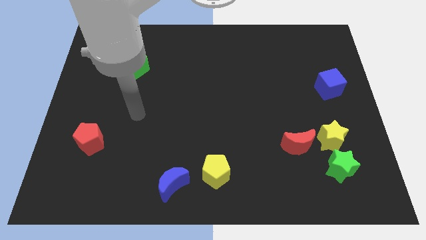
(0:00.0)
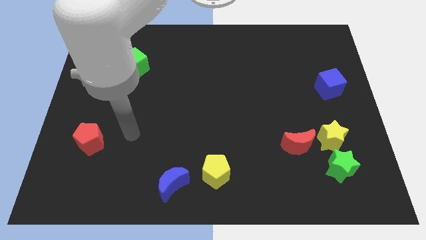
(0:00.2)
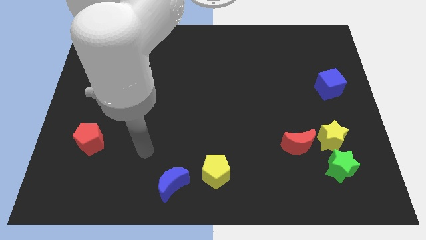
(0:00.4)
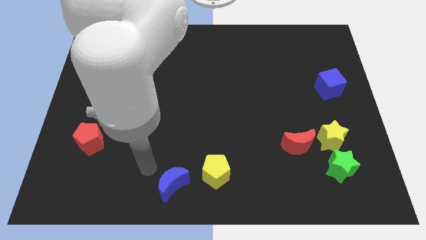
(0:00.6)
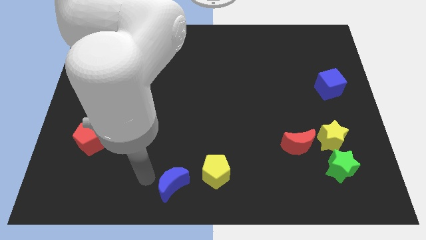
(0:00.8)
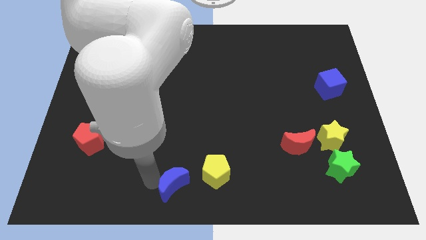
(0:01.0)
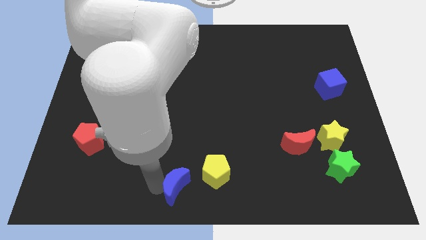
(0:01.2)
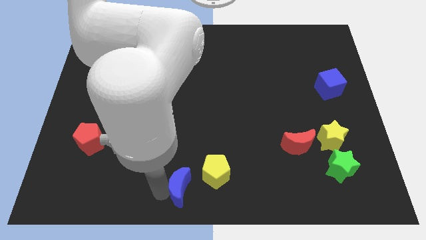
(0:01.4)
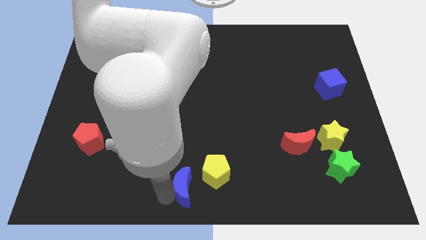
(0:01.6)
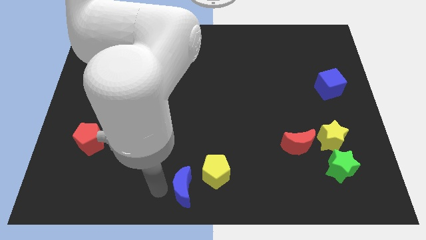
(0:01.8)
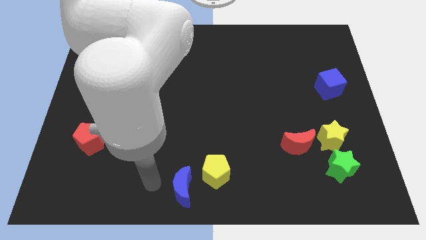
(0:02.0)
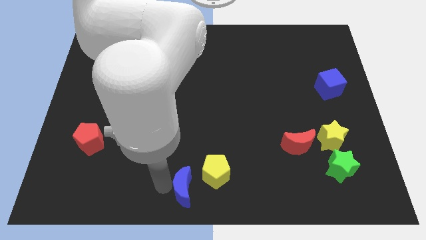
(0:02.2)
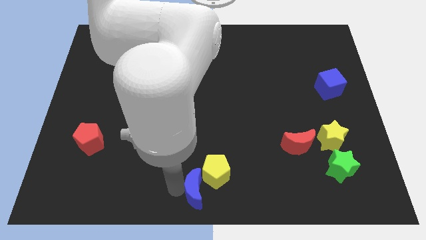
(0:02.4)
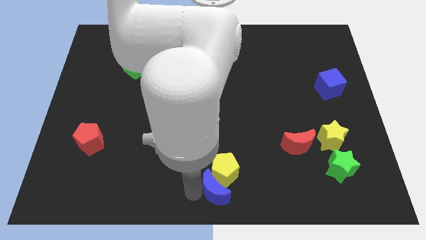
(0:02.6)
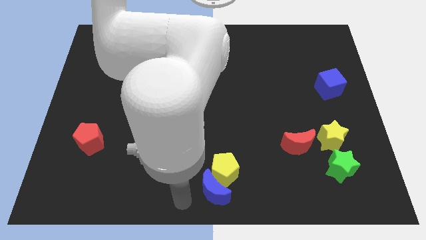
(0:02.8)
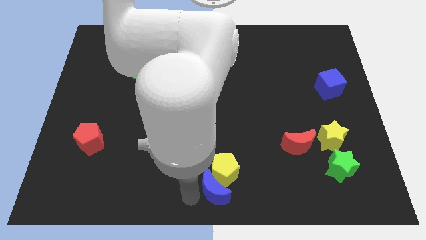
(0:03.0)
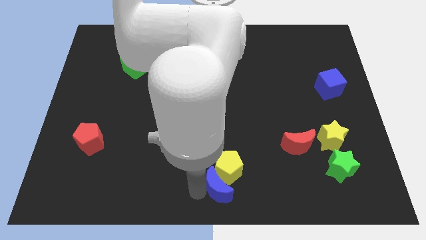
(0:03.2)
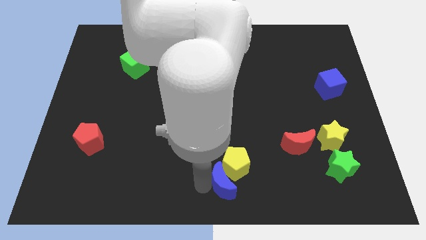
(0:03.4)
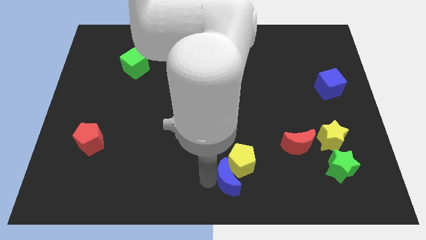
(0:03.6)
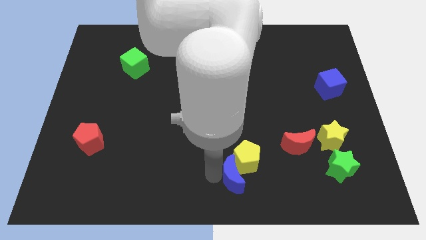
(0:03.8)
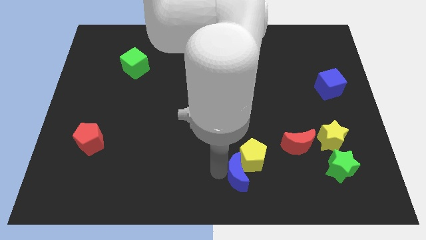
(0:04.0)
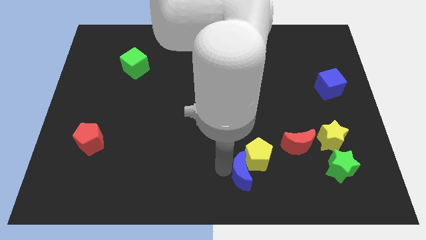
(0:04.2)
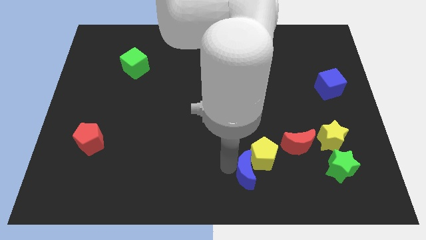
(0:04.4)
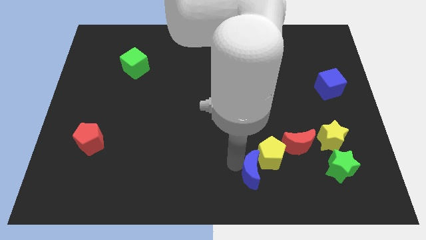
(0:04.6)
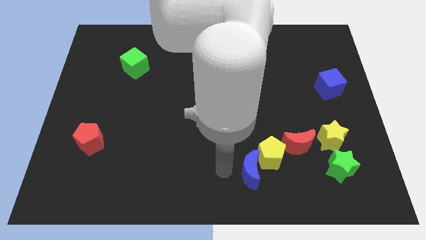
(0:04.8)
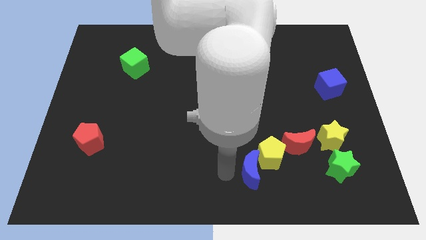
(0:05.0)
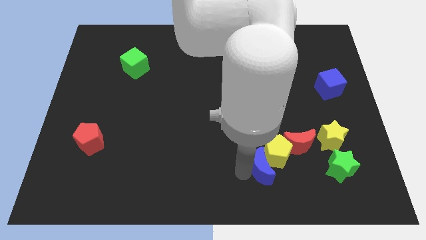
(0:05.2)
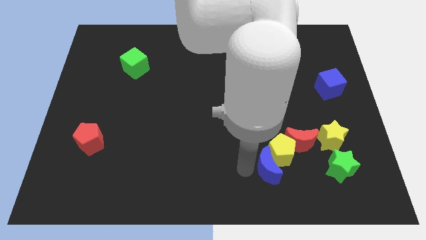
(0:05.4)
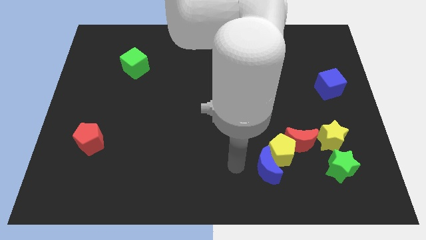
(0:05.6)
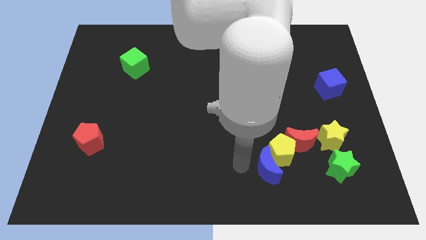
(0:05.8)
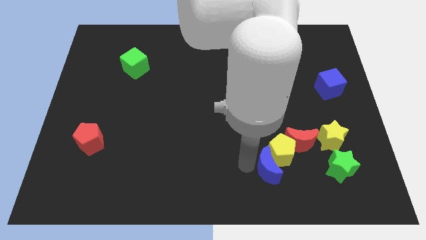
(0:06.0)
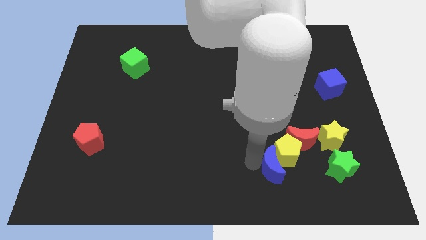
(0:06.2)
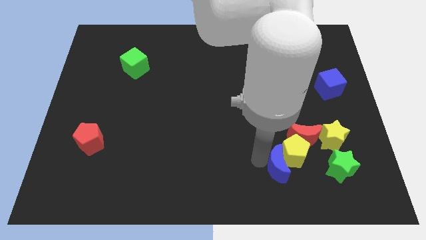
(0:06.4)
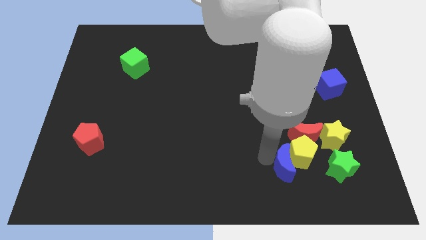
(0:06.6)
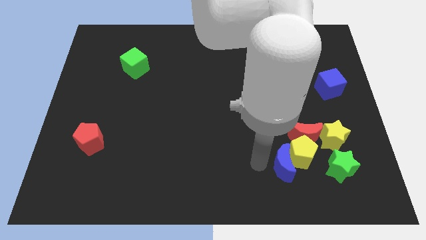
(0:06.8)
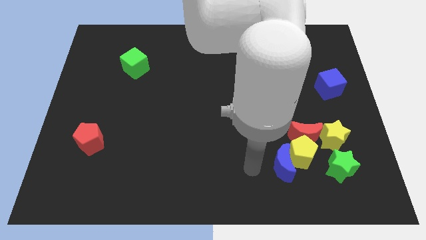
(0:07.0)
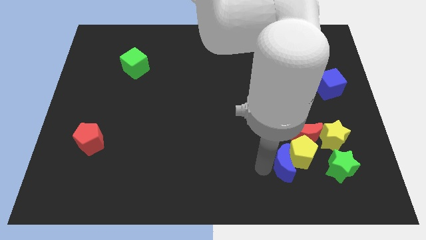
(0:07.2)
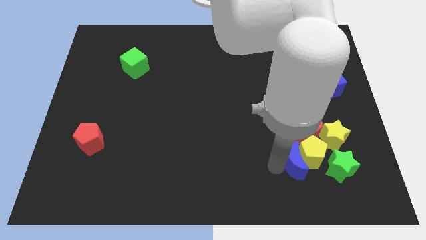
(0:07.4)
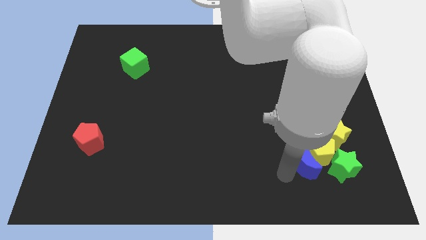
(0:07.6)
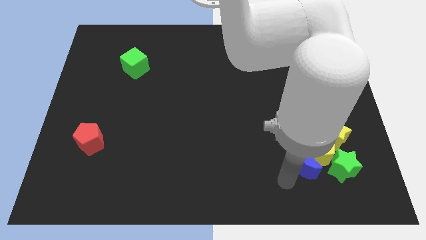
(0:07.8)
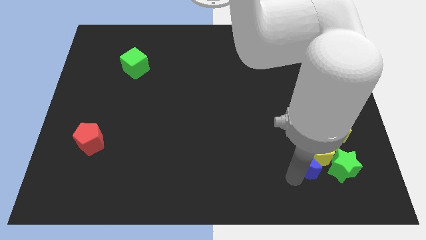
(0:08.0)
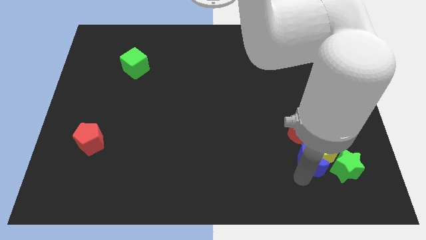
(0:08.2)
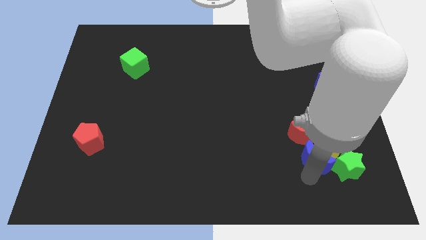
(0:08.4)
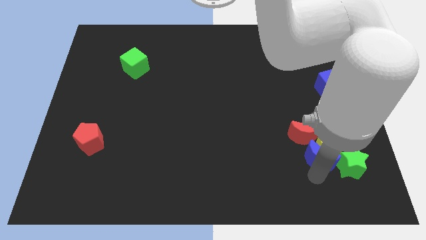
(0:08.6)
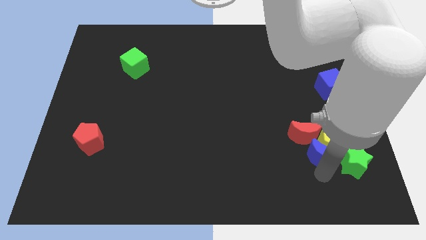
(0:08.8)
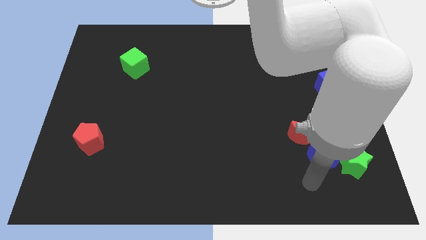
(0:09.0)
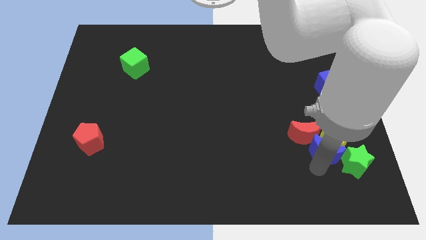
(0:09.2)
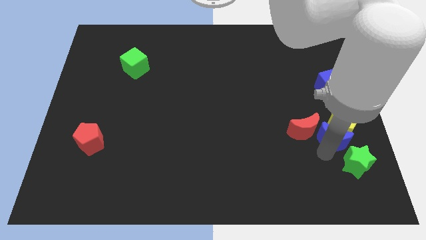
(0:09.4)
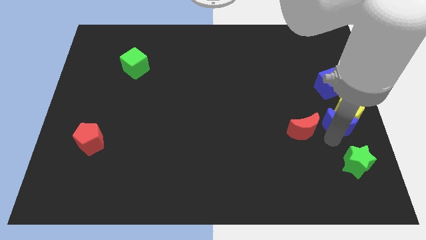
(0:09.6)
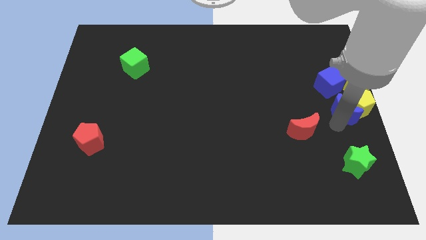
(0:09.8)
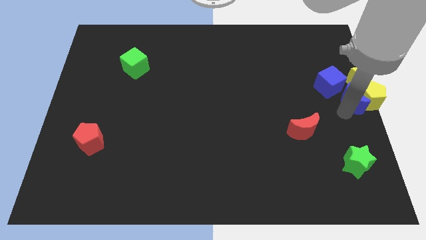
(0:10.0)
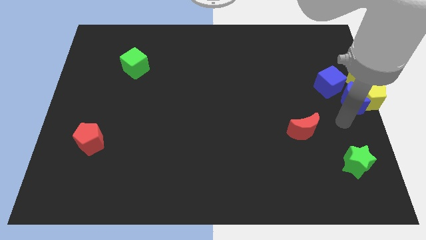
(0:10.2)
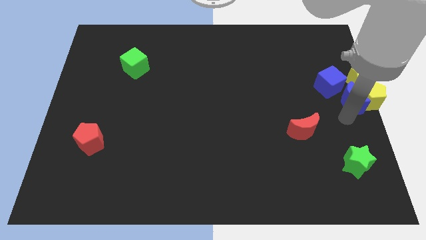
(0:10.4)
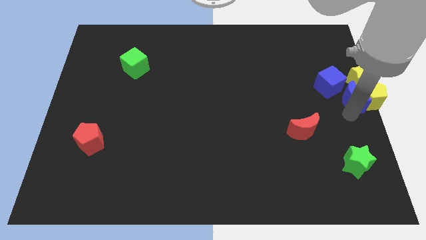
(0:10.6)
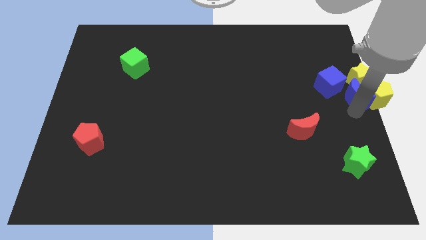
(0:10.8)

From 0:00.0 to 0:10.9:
move the blue moon to the yellow star

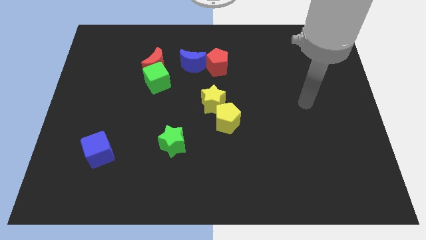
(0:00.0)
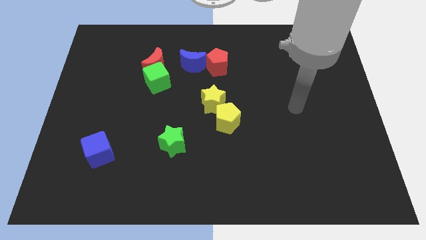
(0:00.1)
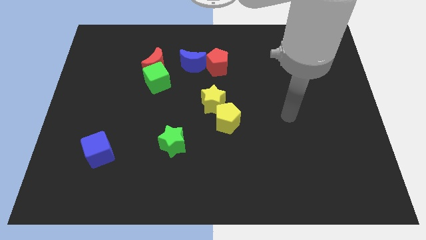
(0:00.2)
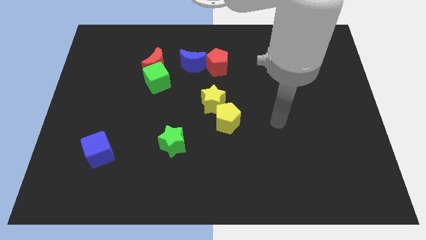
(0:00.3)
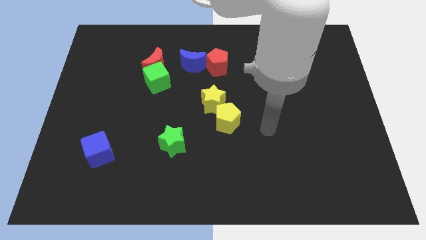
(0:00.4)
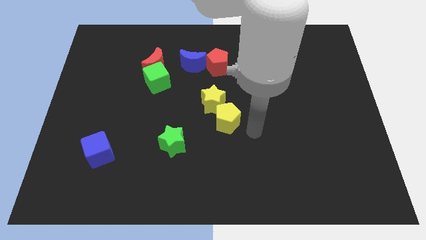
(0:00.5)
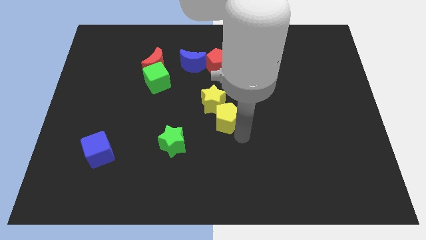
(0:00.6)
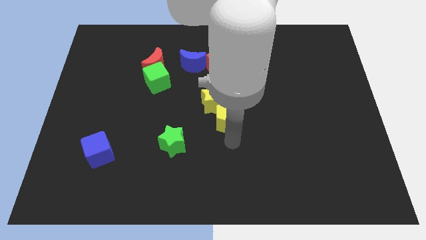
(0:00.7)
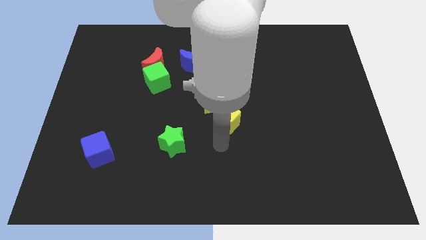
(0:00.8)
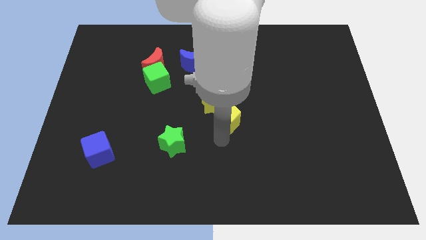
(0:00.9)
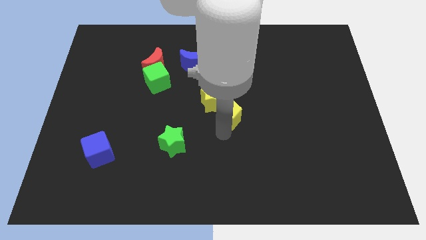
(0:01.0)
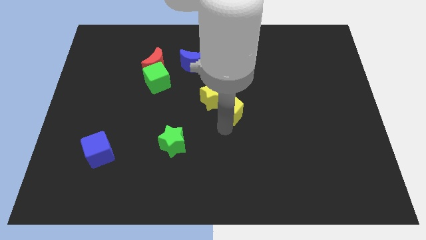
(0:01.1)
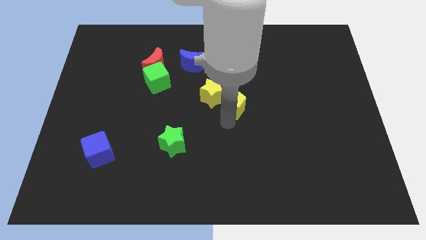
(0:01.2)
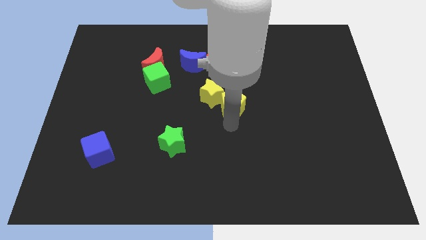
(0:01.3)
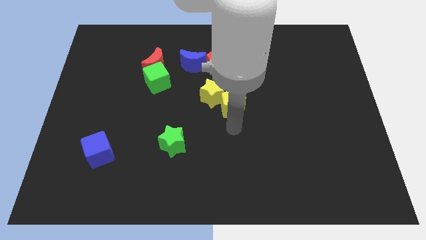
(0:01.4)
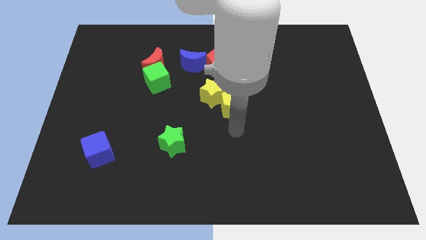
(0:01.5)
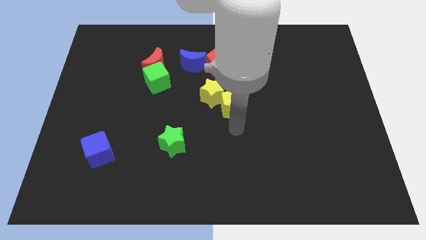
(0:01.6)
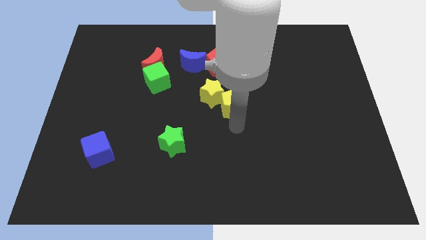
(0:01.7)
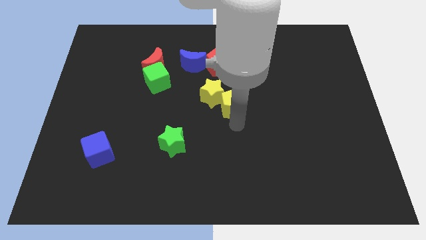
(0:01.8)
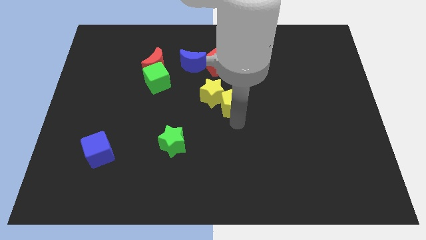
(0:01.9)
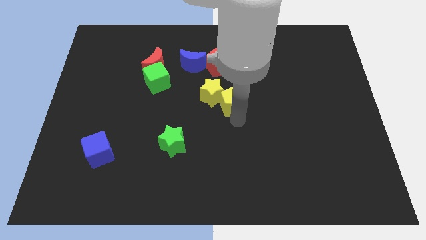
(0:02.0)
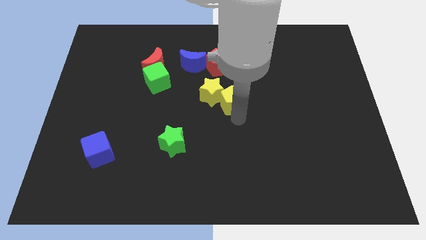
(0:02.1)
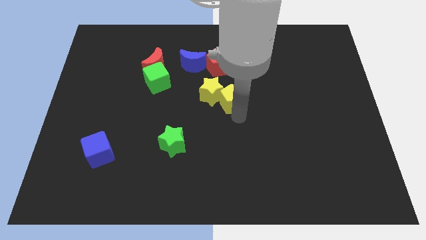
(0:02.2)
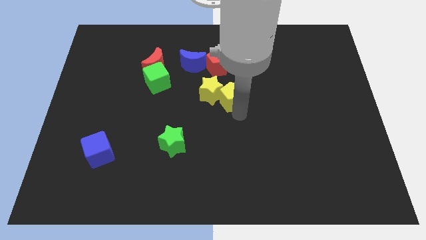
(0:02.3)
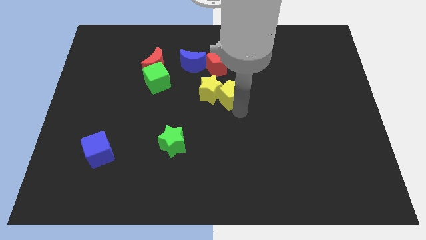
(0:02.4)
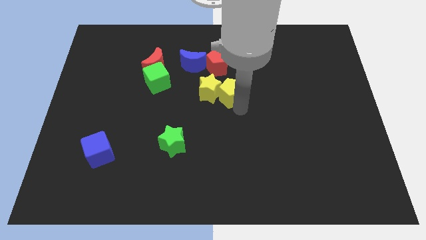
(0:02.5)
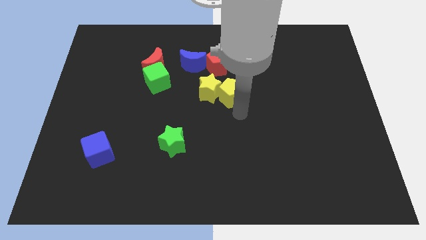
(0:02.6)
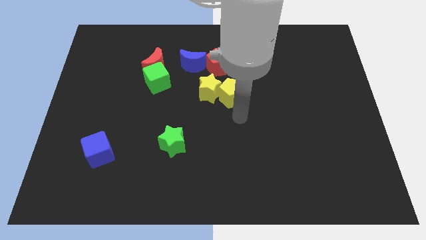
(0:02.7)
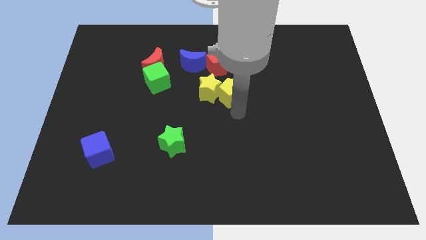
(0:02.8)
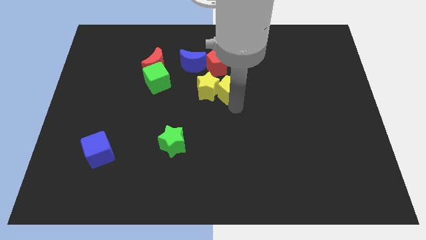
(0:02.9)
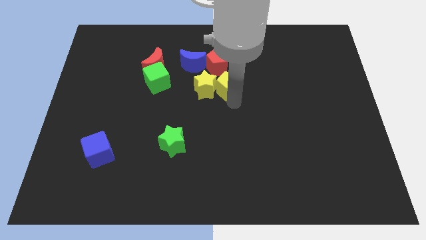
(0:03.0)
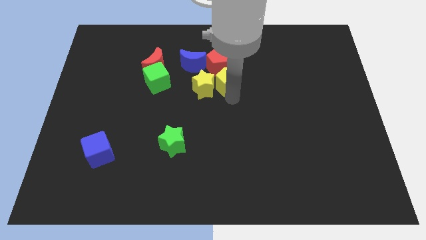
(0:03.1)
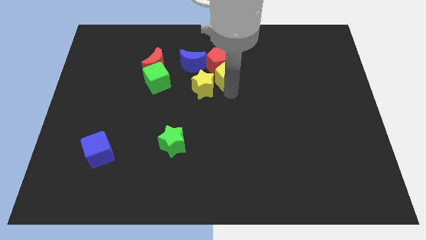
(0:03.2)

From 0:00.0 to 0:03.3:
slide the yellow pentagon to the red pentagon
